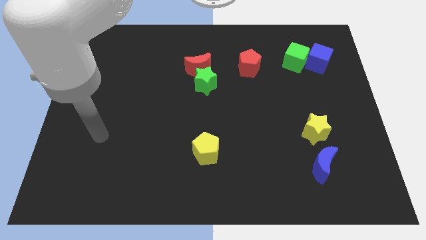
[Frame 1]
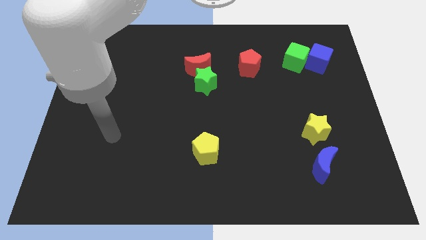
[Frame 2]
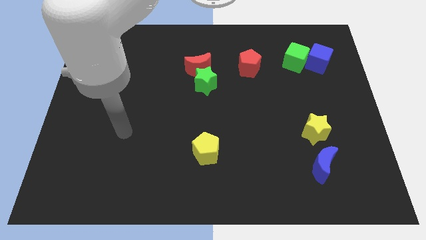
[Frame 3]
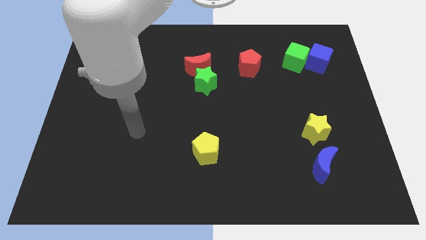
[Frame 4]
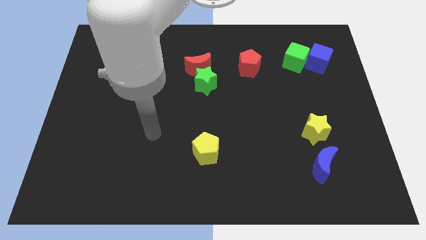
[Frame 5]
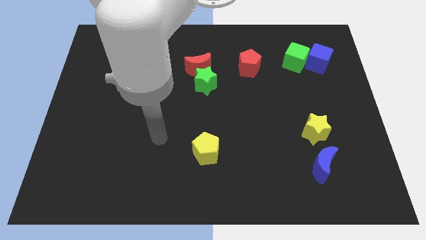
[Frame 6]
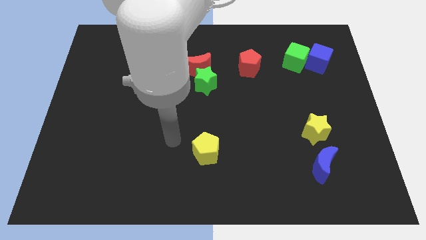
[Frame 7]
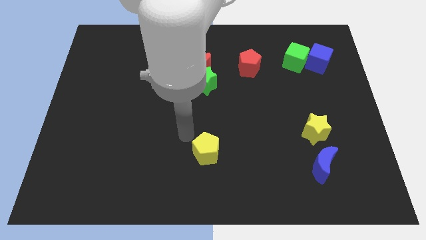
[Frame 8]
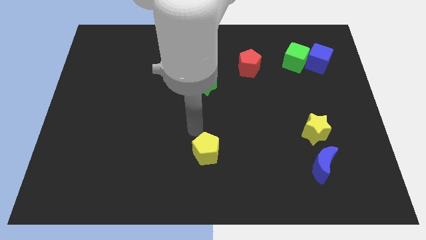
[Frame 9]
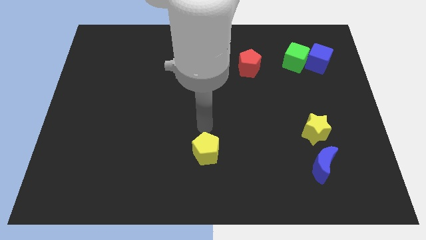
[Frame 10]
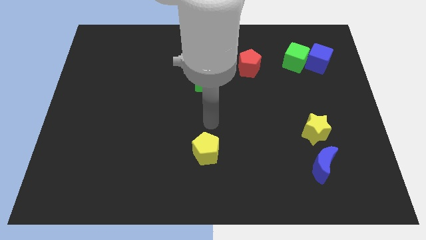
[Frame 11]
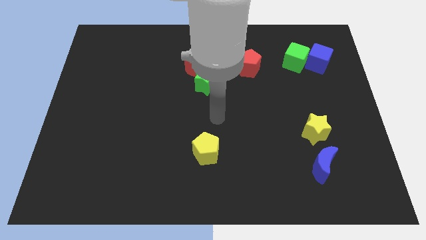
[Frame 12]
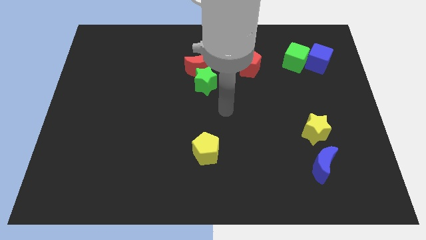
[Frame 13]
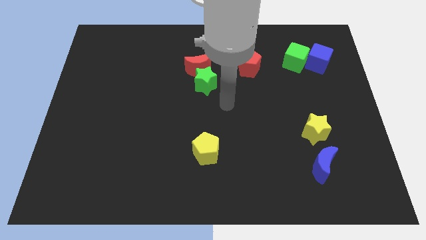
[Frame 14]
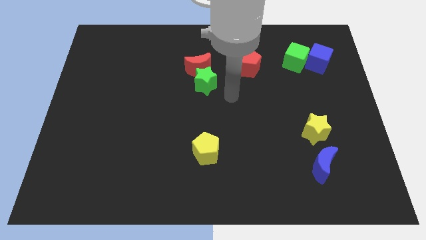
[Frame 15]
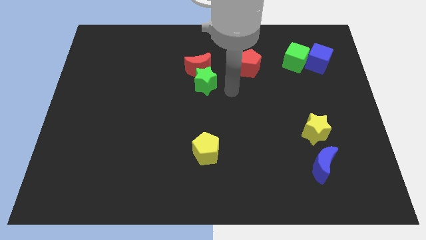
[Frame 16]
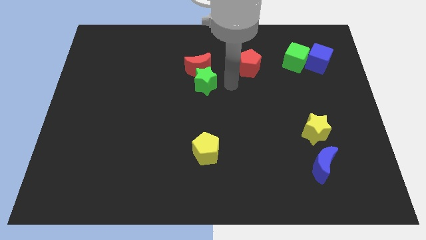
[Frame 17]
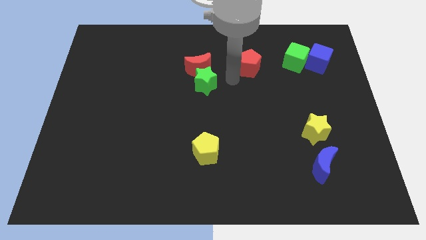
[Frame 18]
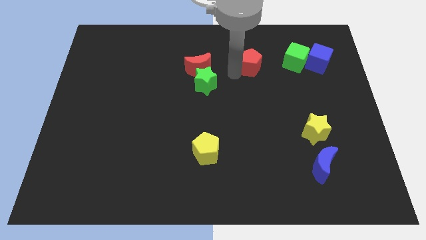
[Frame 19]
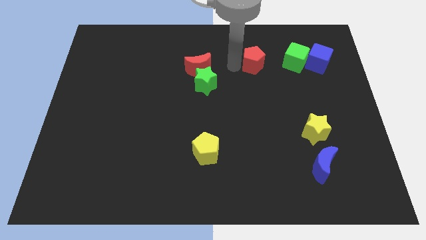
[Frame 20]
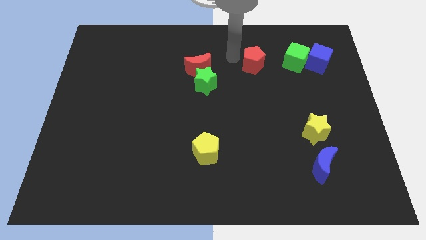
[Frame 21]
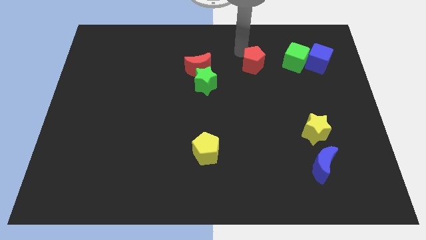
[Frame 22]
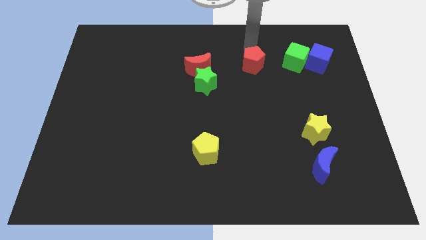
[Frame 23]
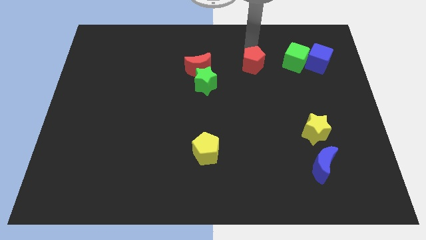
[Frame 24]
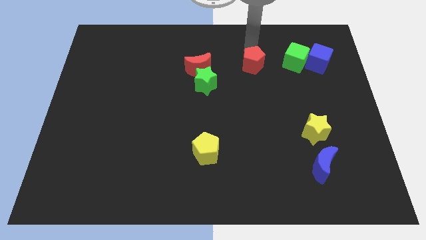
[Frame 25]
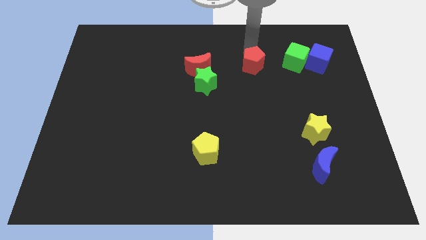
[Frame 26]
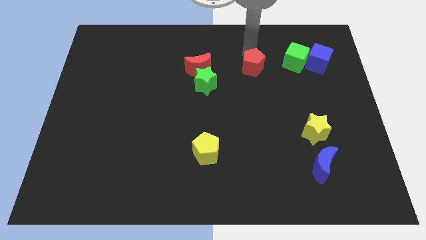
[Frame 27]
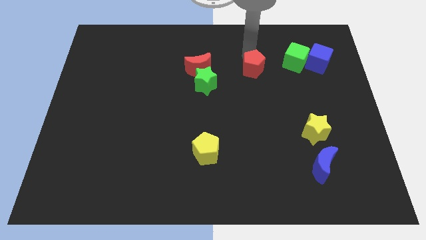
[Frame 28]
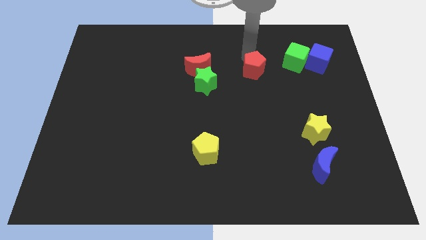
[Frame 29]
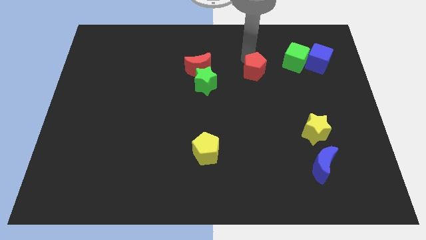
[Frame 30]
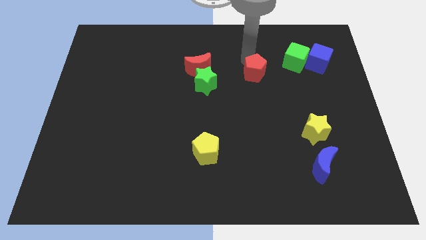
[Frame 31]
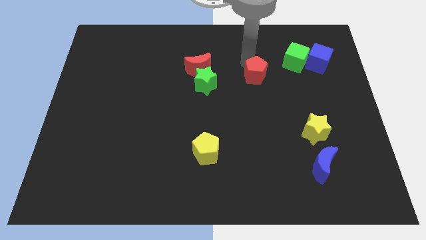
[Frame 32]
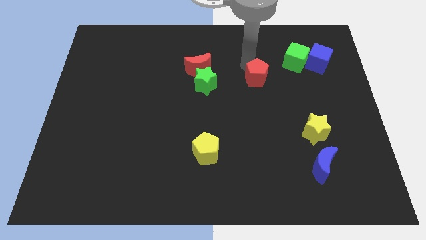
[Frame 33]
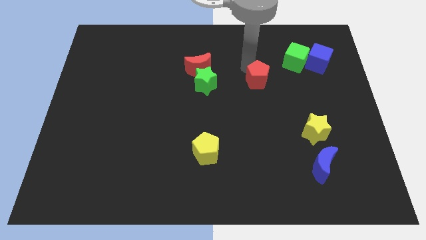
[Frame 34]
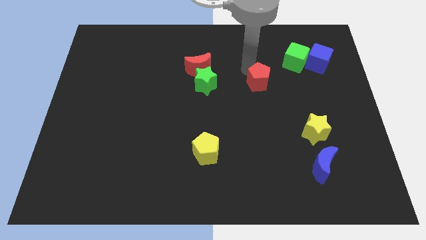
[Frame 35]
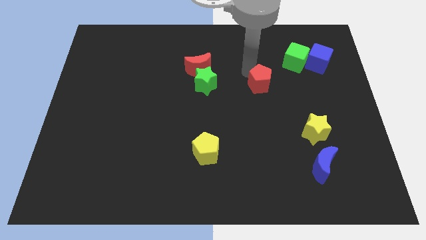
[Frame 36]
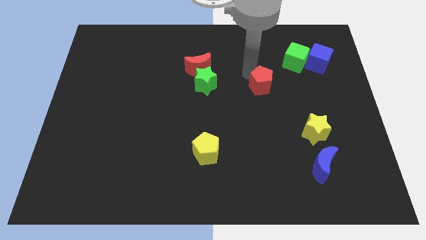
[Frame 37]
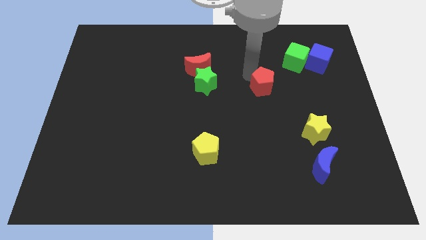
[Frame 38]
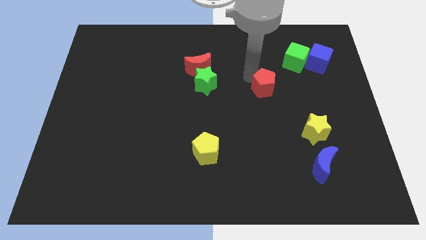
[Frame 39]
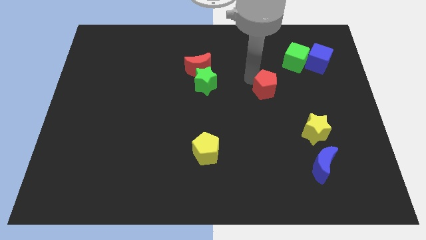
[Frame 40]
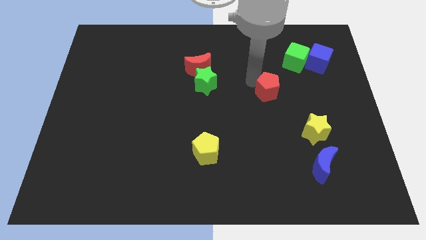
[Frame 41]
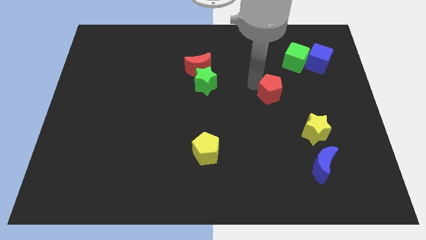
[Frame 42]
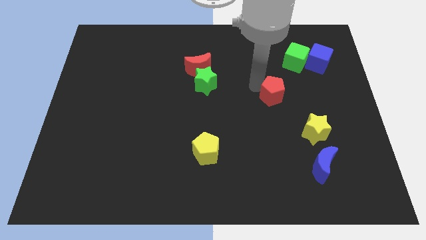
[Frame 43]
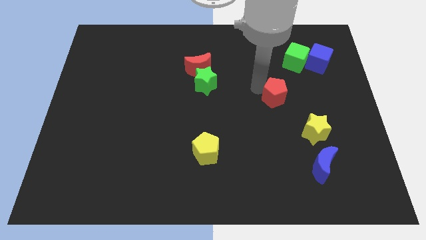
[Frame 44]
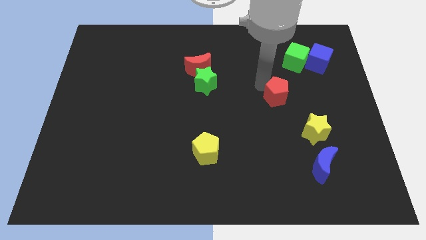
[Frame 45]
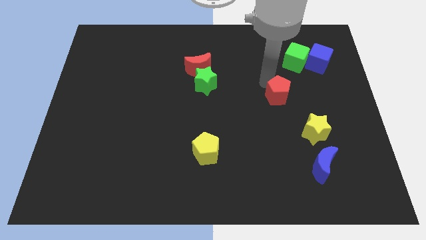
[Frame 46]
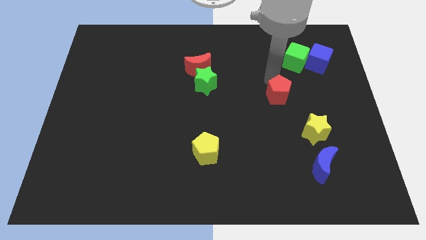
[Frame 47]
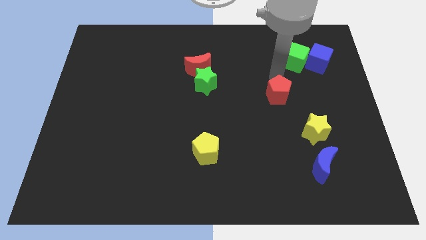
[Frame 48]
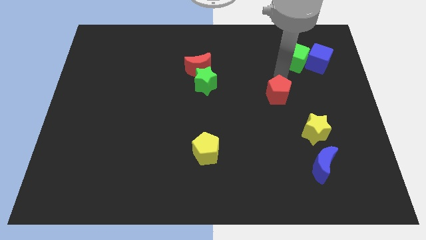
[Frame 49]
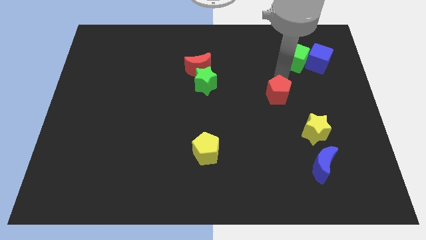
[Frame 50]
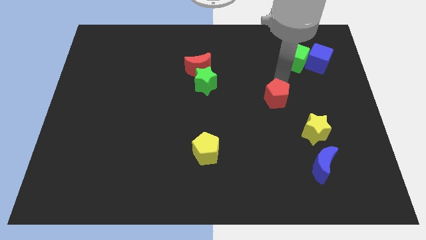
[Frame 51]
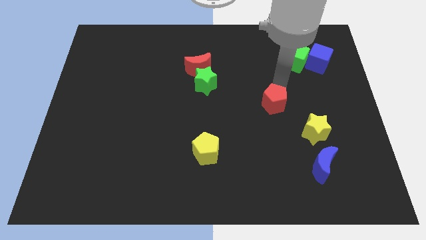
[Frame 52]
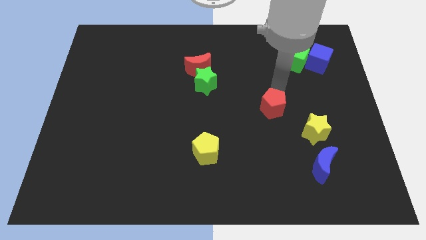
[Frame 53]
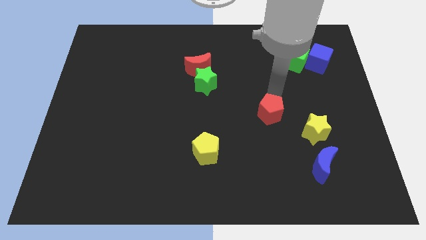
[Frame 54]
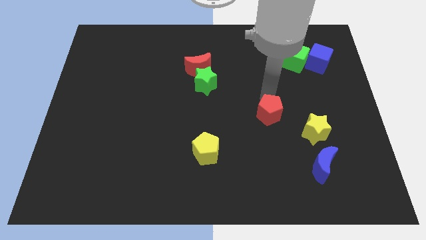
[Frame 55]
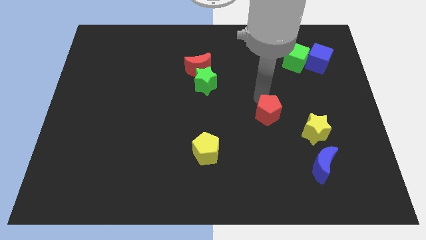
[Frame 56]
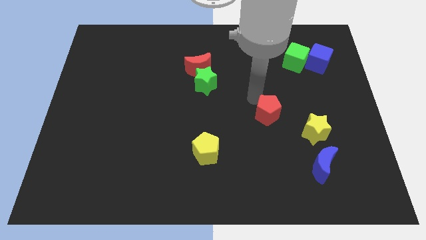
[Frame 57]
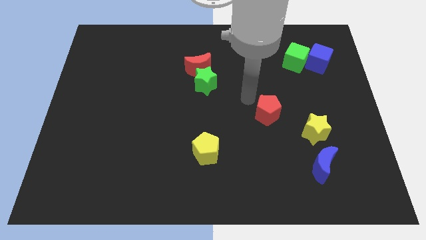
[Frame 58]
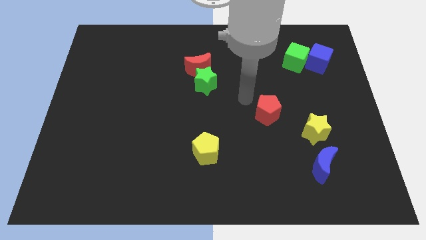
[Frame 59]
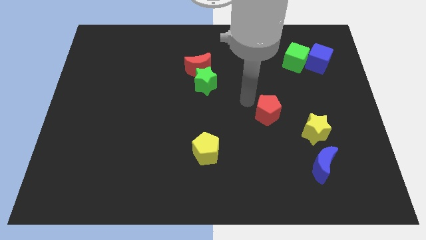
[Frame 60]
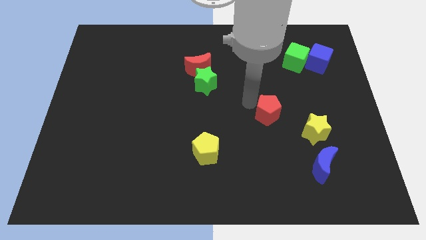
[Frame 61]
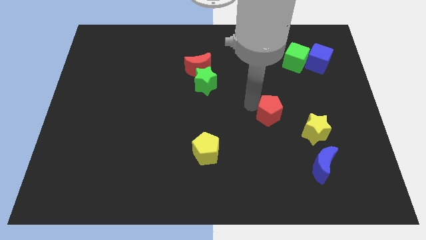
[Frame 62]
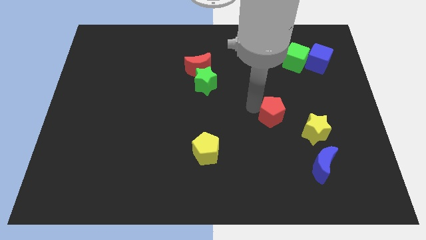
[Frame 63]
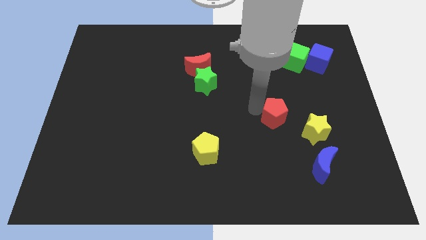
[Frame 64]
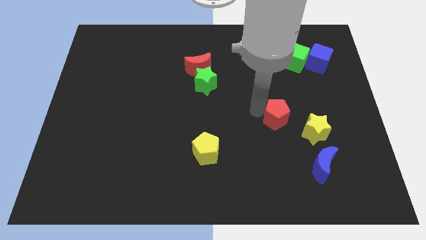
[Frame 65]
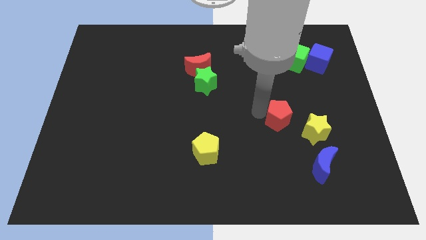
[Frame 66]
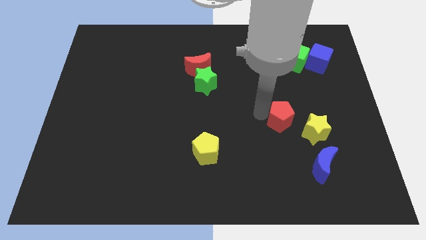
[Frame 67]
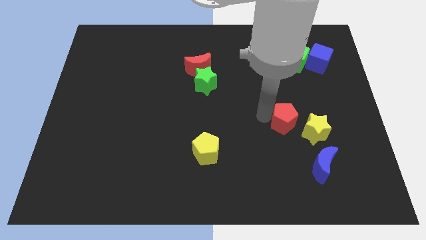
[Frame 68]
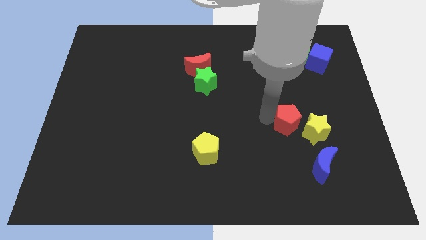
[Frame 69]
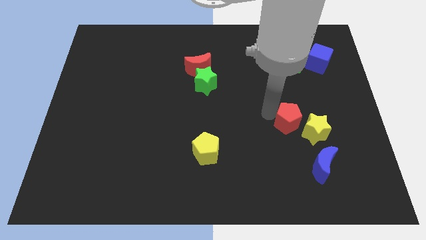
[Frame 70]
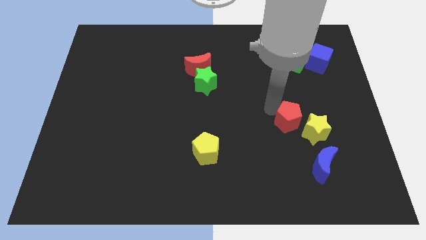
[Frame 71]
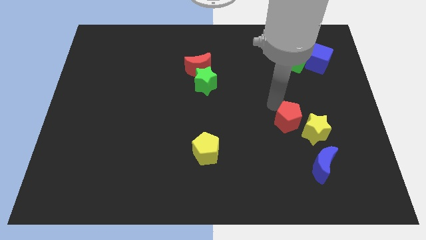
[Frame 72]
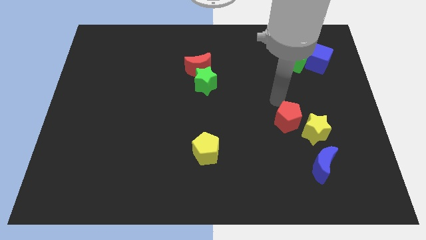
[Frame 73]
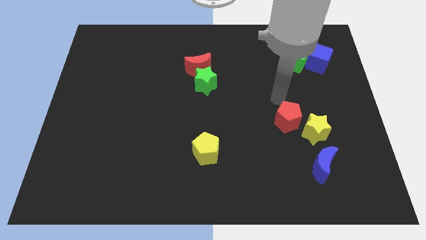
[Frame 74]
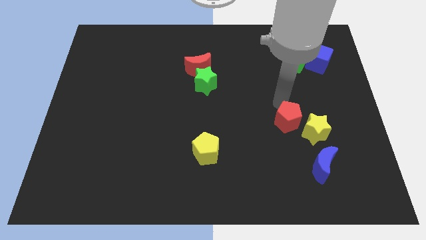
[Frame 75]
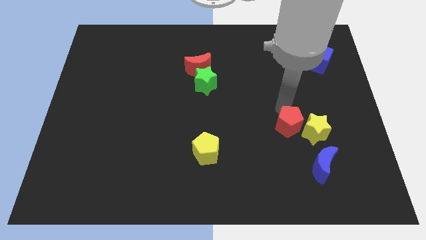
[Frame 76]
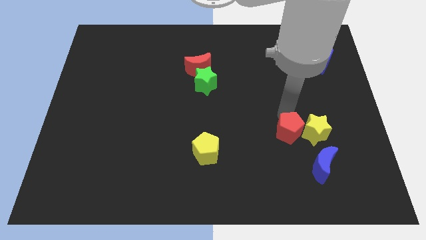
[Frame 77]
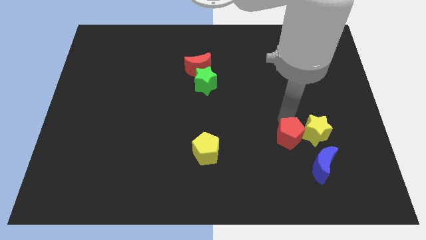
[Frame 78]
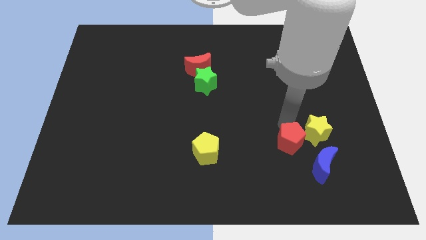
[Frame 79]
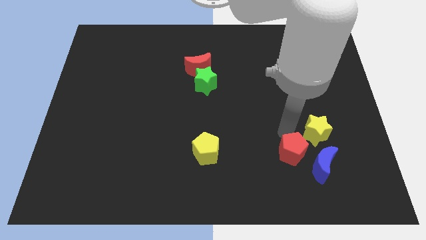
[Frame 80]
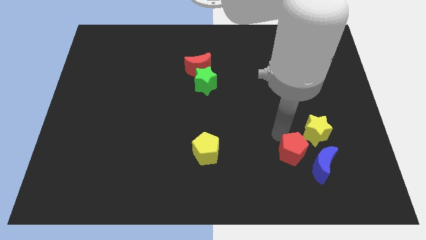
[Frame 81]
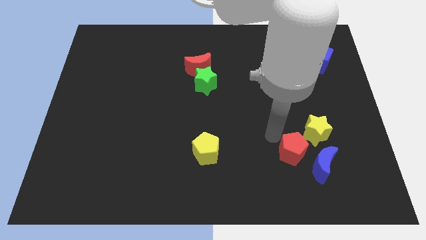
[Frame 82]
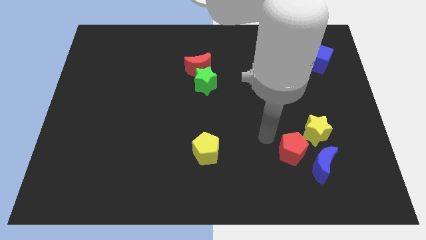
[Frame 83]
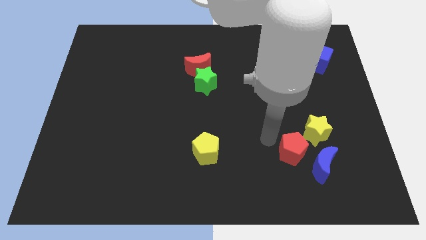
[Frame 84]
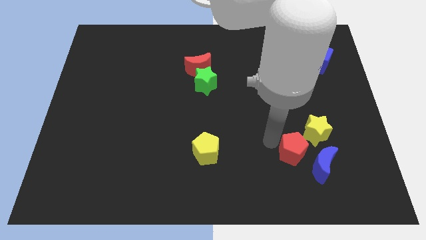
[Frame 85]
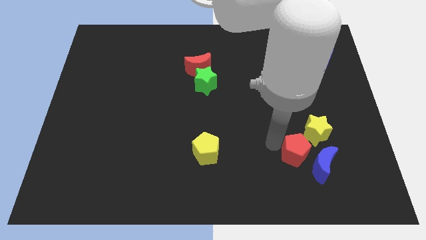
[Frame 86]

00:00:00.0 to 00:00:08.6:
move the red pentagon next to the blue moon
